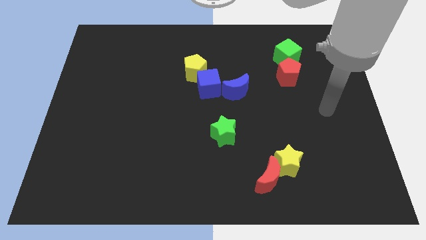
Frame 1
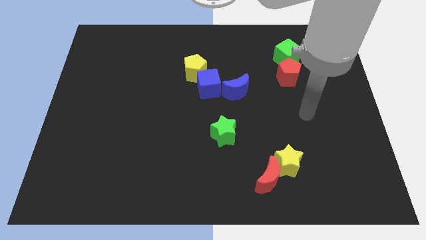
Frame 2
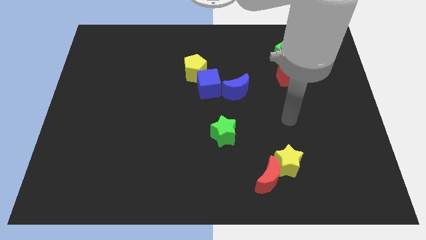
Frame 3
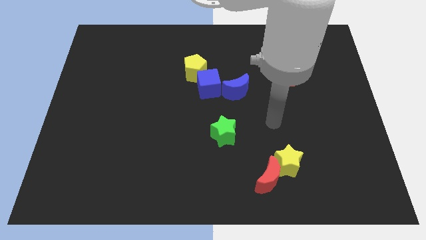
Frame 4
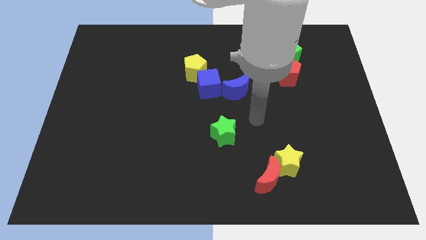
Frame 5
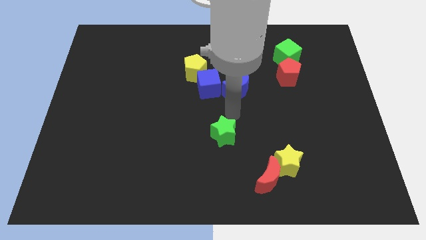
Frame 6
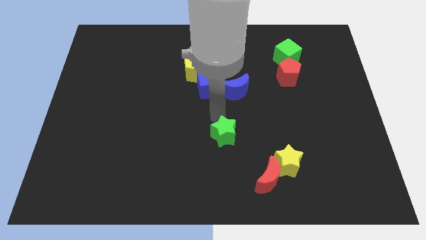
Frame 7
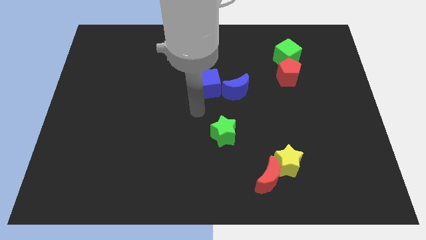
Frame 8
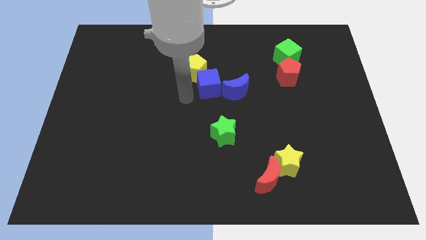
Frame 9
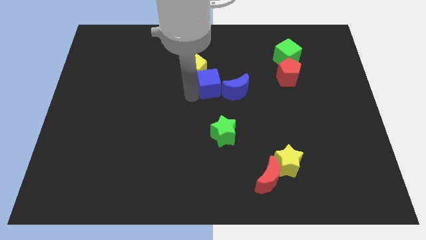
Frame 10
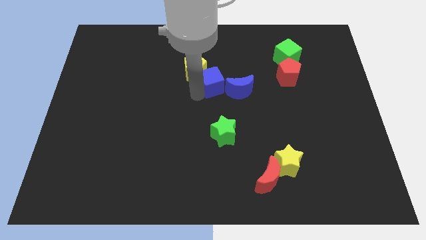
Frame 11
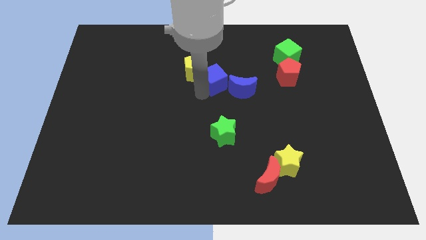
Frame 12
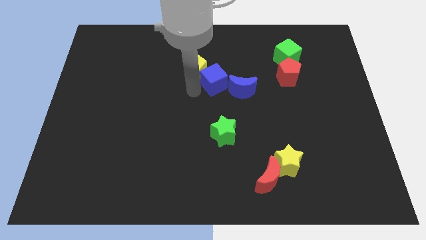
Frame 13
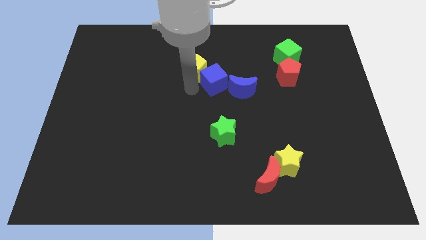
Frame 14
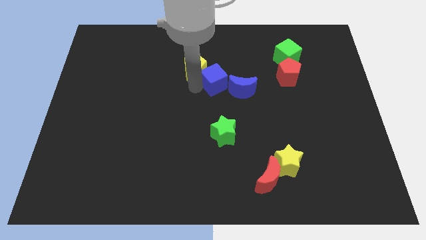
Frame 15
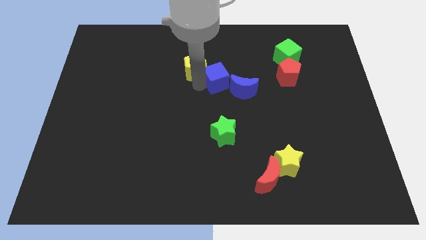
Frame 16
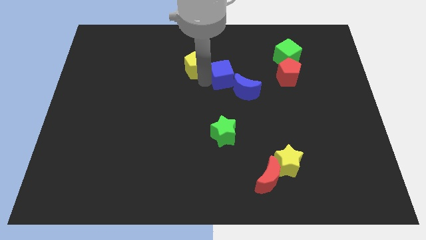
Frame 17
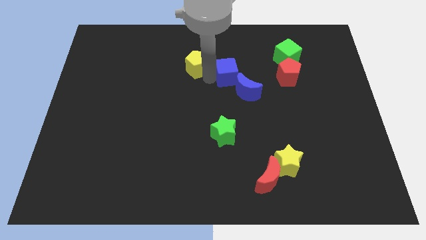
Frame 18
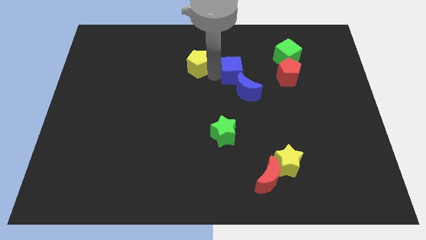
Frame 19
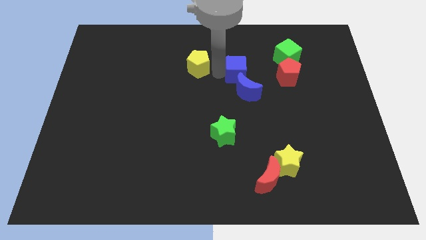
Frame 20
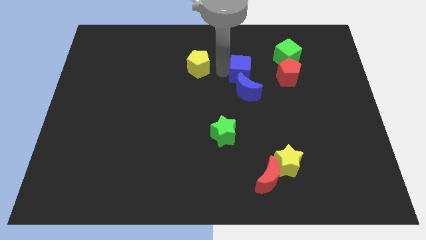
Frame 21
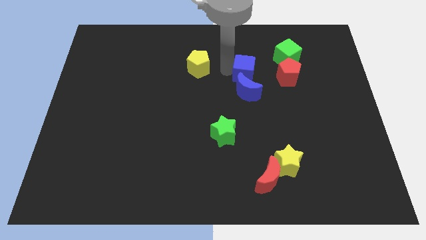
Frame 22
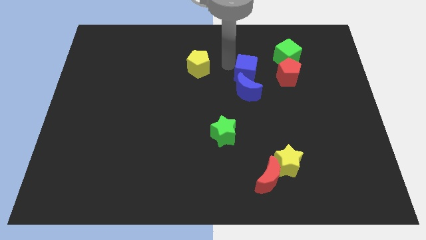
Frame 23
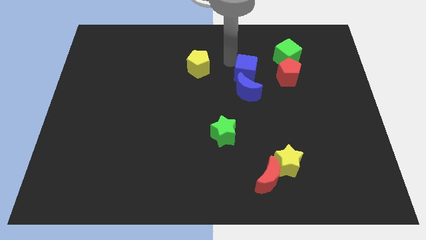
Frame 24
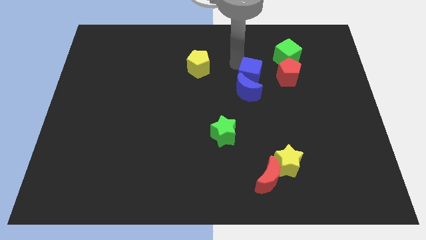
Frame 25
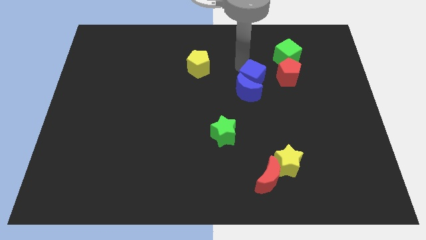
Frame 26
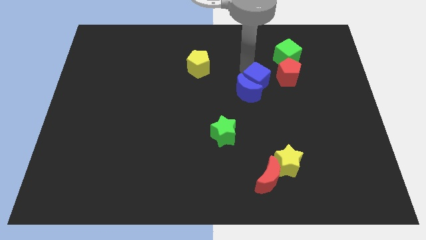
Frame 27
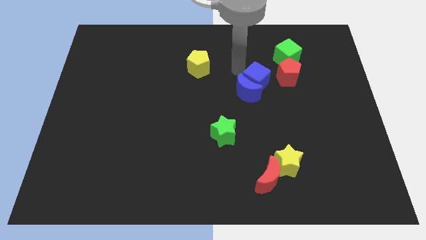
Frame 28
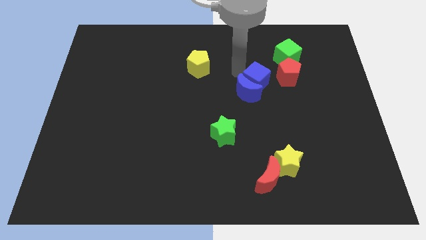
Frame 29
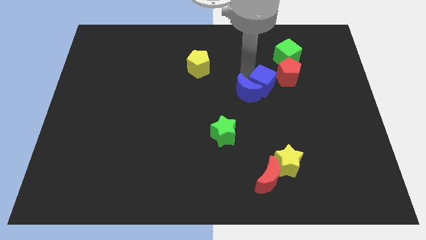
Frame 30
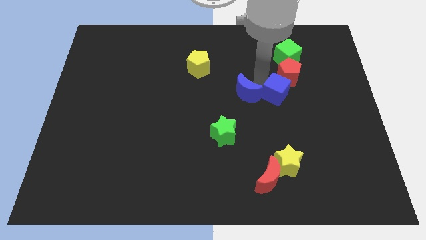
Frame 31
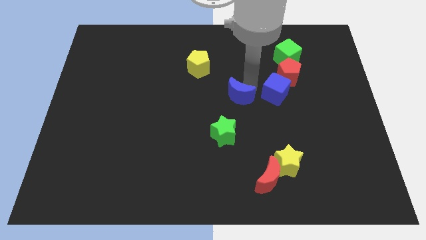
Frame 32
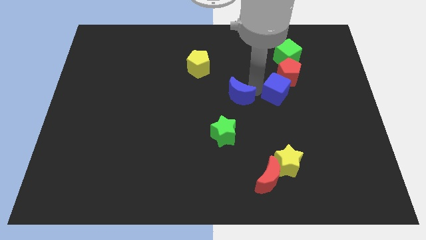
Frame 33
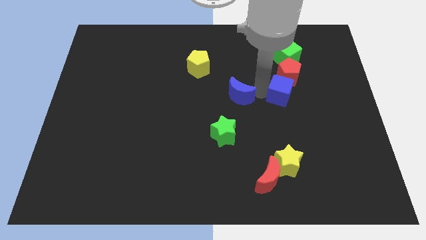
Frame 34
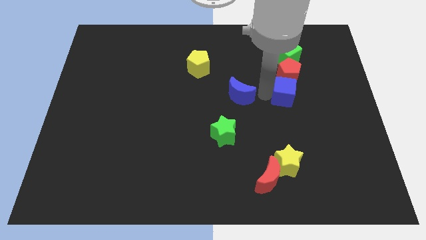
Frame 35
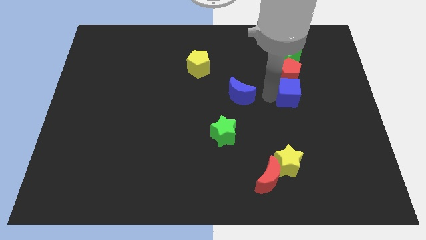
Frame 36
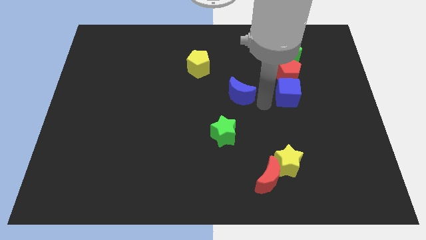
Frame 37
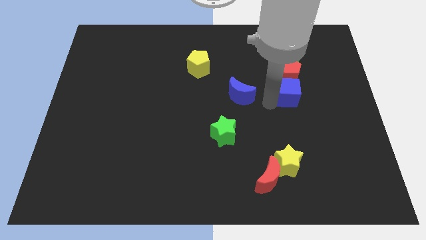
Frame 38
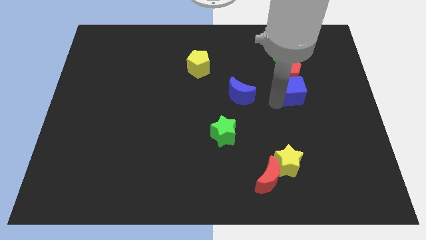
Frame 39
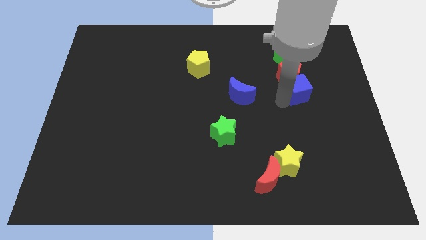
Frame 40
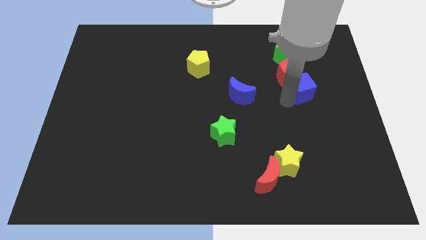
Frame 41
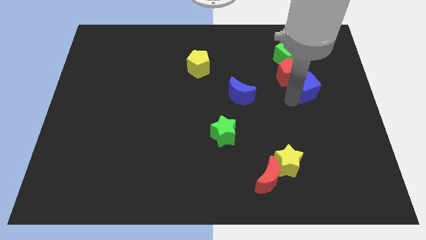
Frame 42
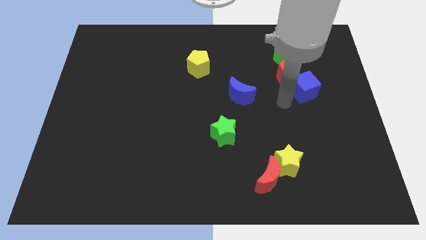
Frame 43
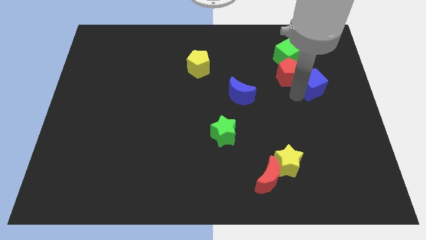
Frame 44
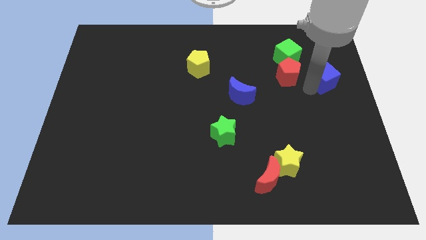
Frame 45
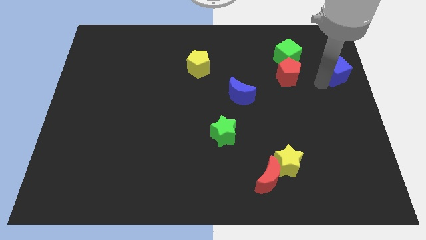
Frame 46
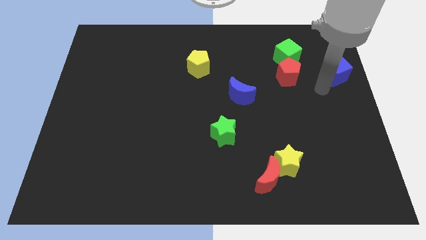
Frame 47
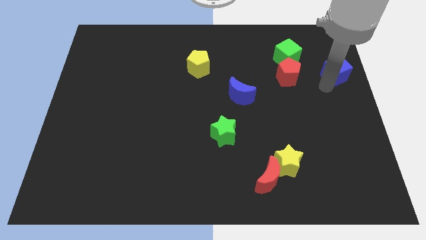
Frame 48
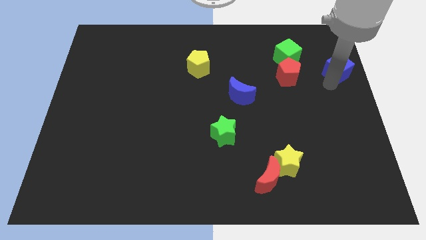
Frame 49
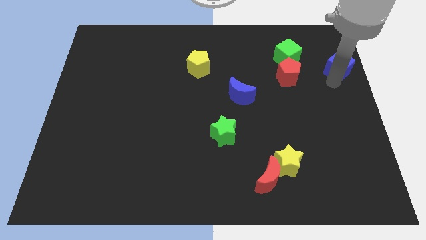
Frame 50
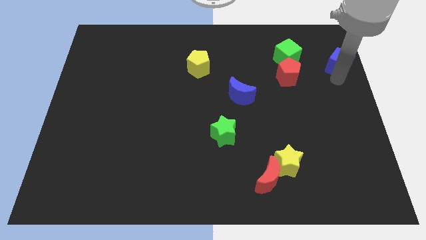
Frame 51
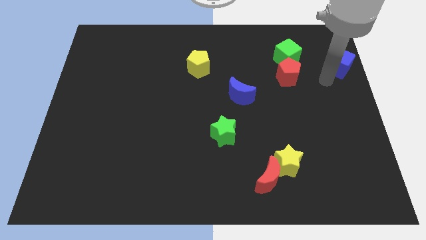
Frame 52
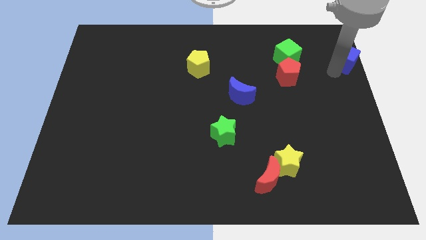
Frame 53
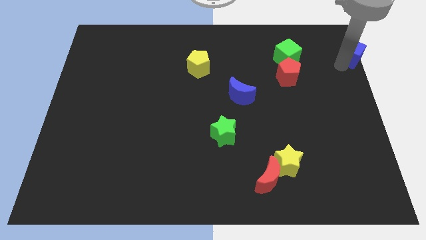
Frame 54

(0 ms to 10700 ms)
put the blue cube to the top right

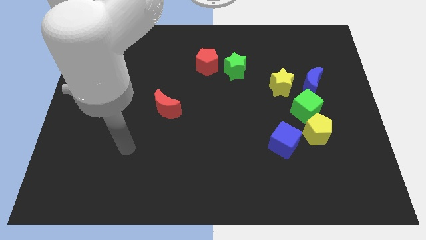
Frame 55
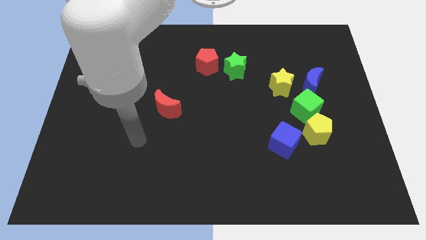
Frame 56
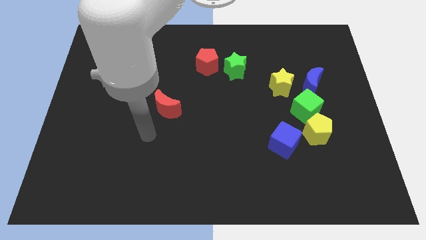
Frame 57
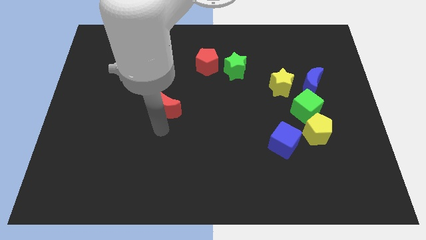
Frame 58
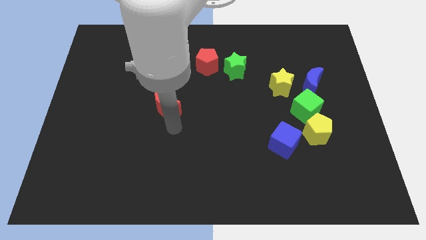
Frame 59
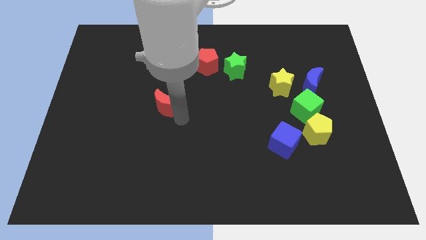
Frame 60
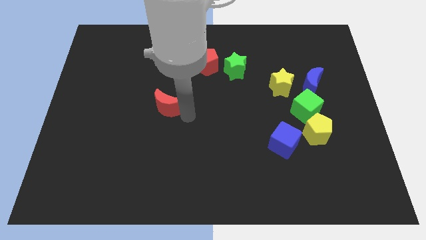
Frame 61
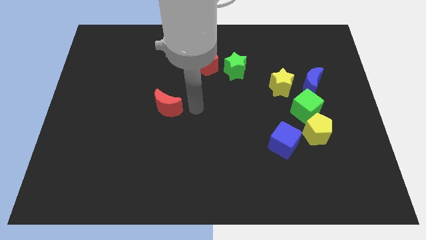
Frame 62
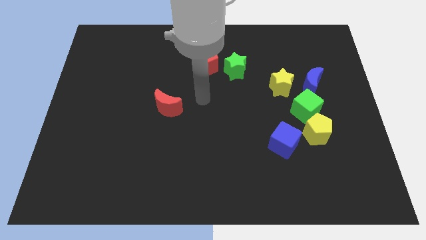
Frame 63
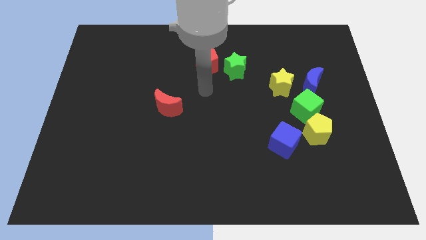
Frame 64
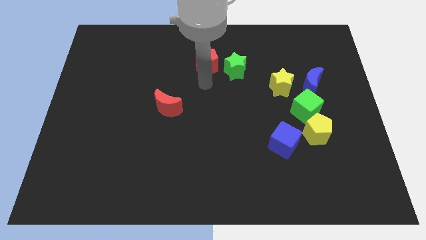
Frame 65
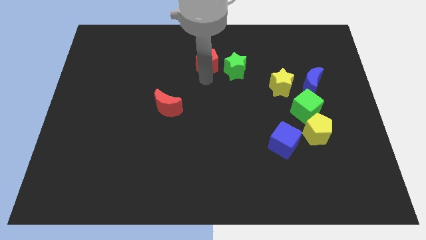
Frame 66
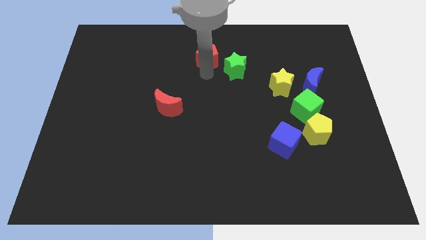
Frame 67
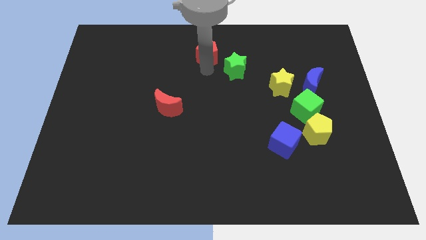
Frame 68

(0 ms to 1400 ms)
move the red pentagon to the towards your base

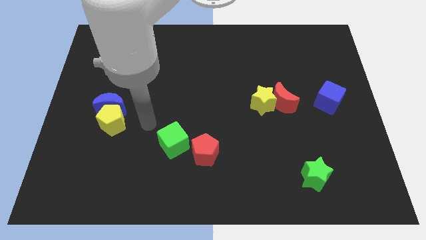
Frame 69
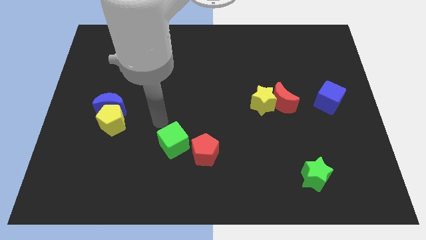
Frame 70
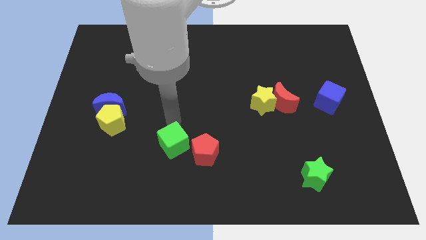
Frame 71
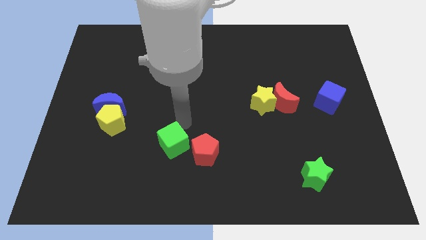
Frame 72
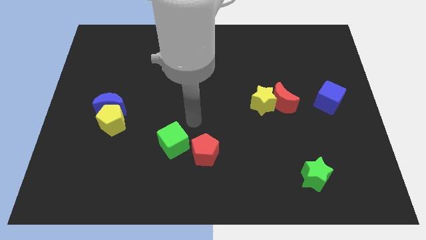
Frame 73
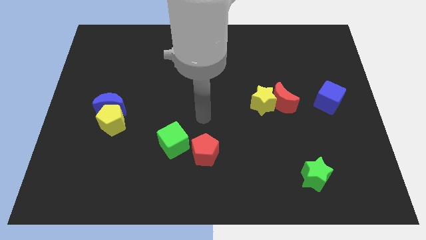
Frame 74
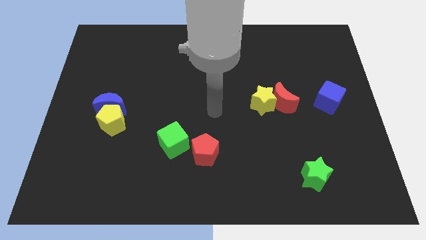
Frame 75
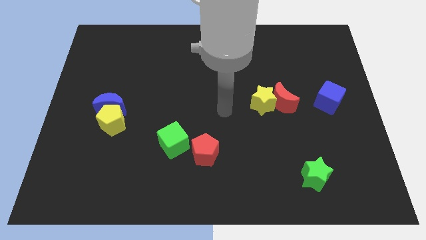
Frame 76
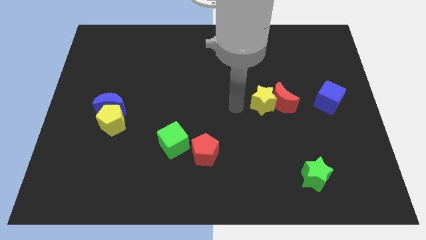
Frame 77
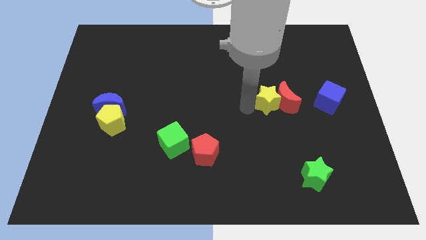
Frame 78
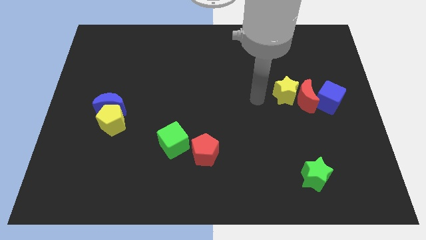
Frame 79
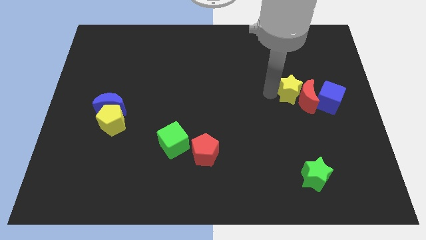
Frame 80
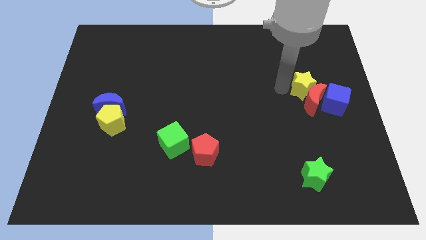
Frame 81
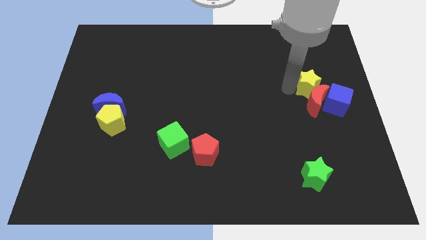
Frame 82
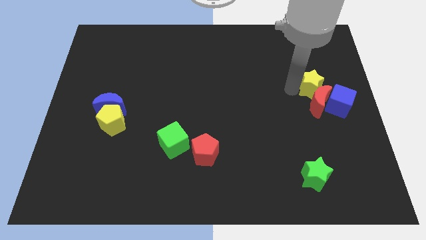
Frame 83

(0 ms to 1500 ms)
push the red moon to the center right
